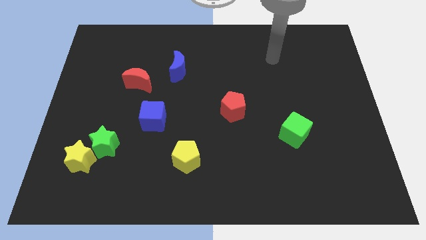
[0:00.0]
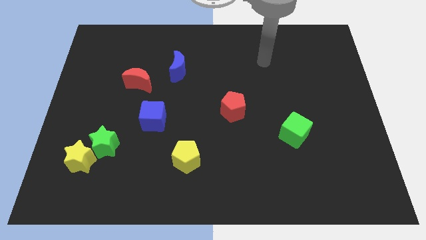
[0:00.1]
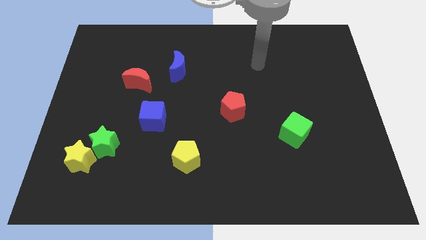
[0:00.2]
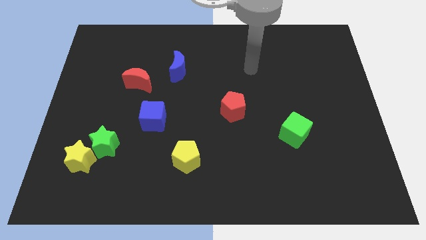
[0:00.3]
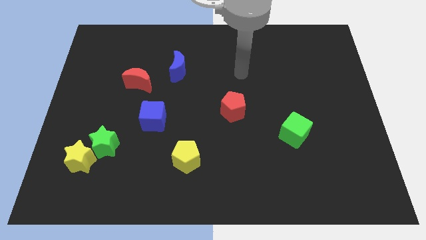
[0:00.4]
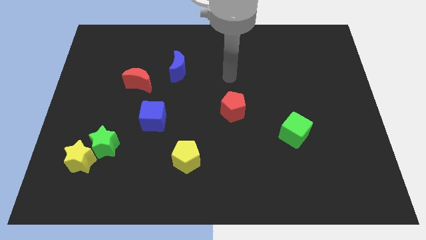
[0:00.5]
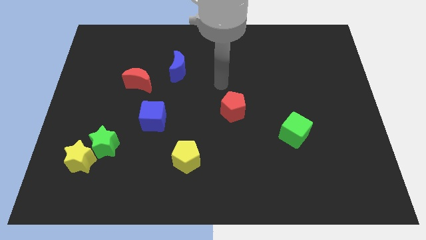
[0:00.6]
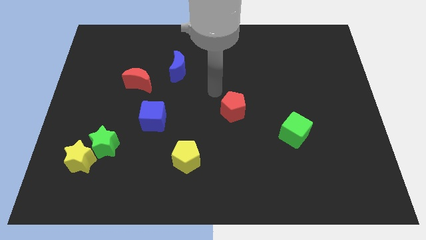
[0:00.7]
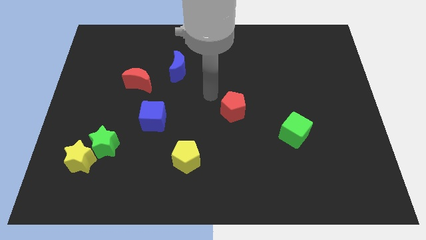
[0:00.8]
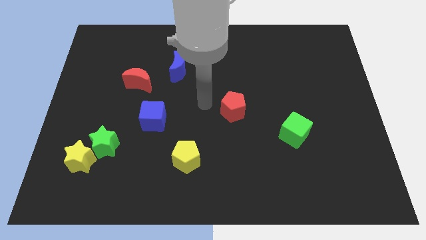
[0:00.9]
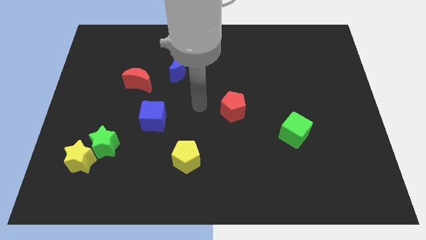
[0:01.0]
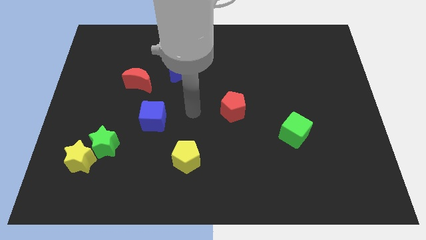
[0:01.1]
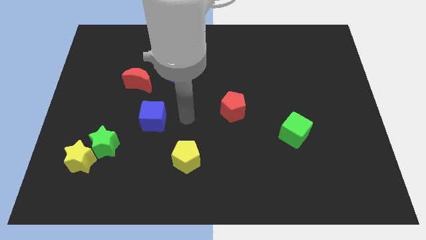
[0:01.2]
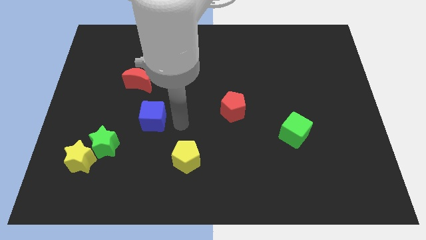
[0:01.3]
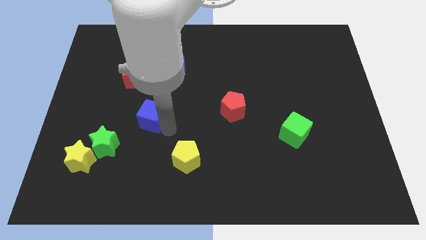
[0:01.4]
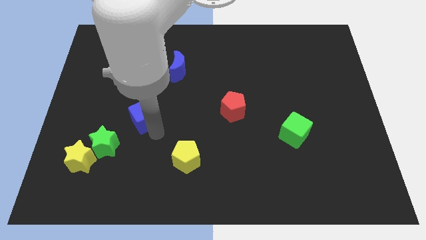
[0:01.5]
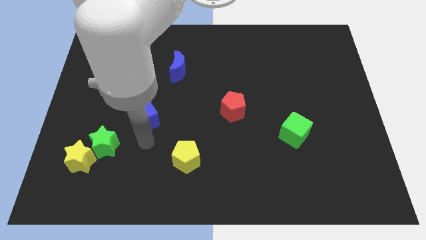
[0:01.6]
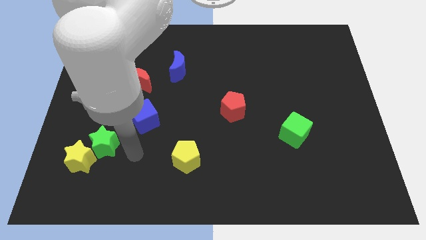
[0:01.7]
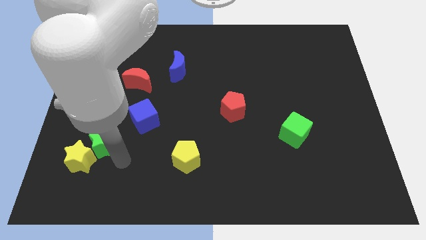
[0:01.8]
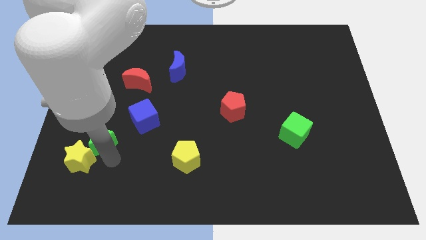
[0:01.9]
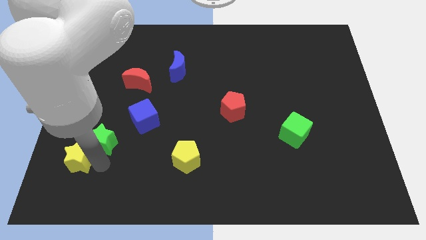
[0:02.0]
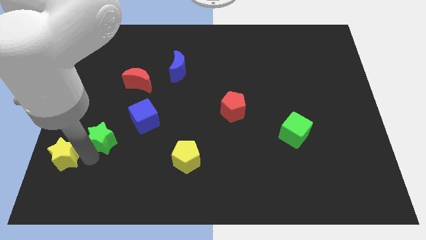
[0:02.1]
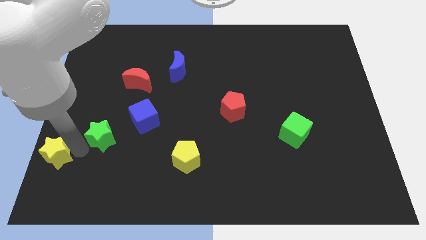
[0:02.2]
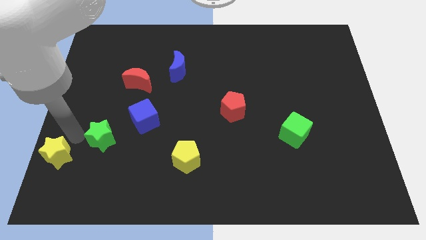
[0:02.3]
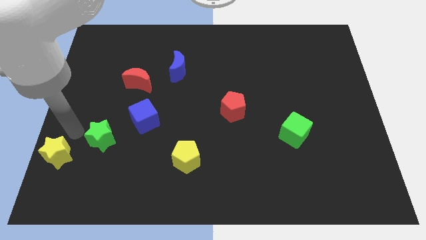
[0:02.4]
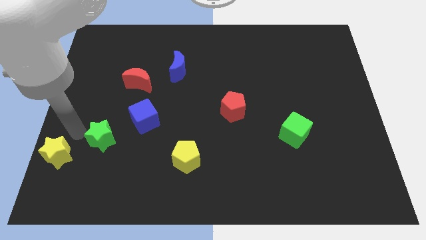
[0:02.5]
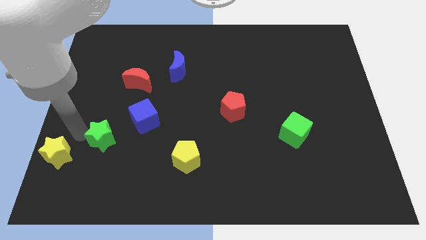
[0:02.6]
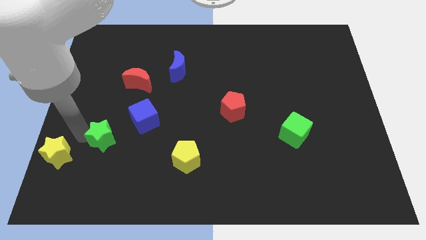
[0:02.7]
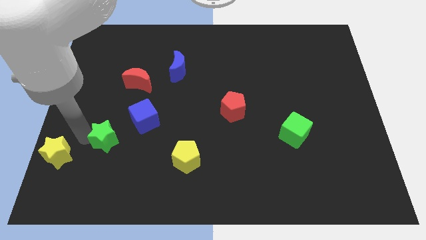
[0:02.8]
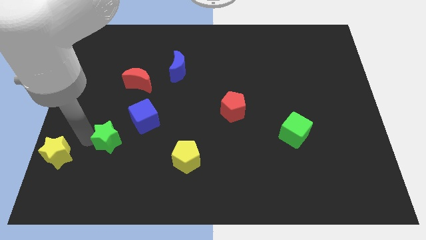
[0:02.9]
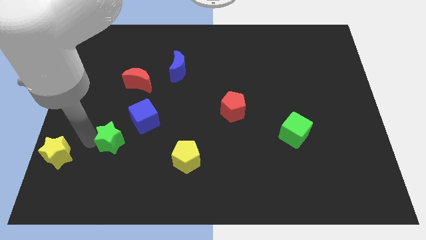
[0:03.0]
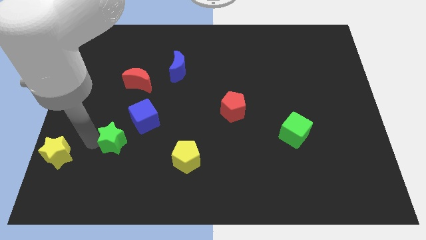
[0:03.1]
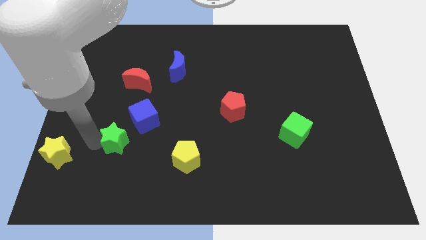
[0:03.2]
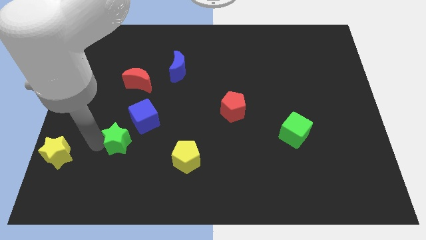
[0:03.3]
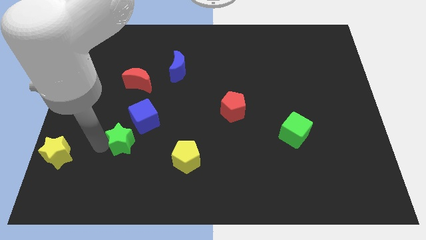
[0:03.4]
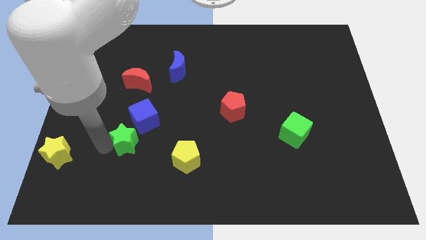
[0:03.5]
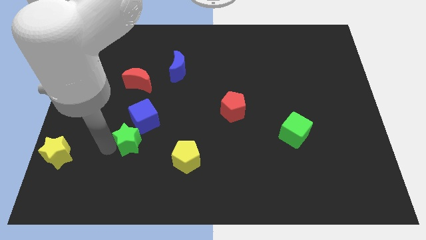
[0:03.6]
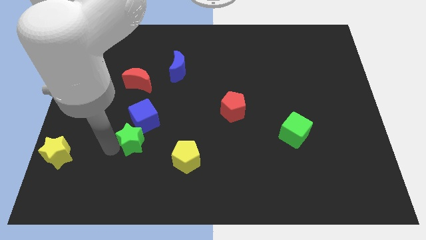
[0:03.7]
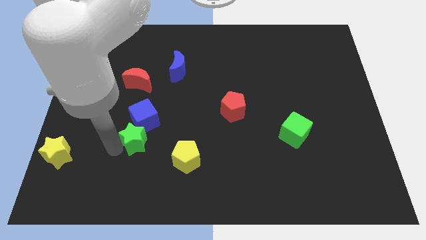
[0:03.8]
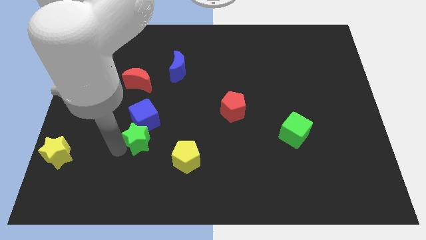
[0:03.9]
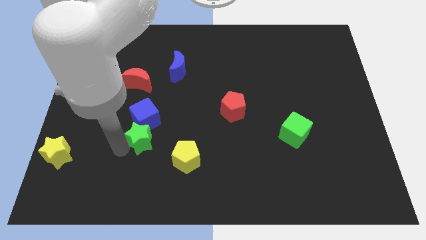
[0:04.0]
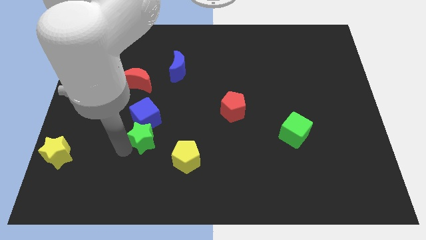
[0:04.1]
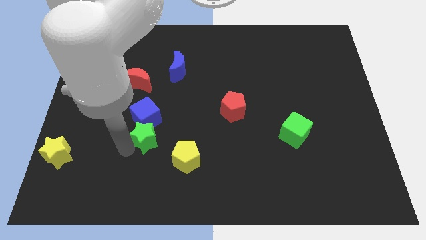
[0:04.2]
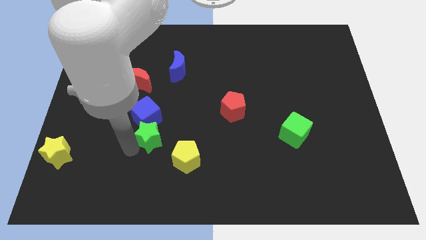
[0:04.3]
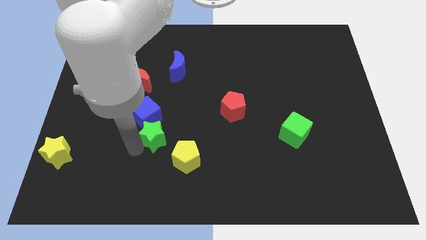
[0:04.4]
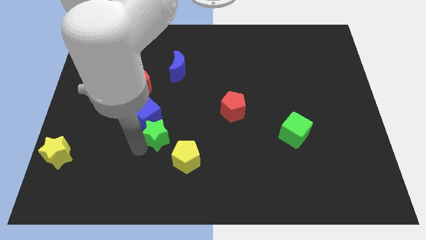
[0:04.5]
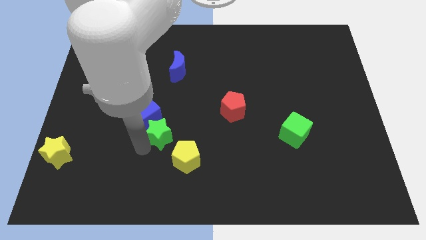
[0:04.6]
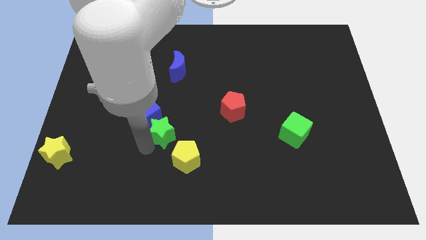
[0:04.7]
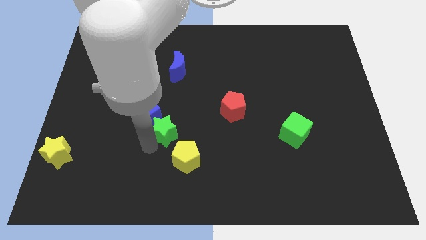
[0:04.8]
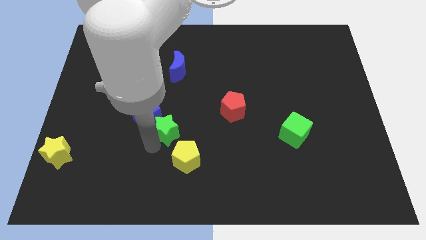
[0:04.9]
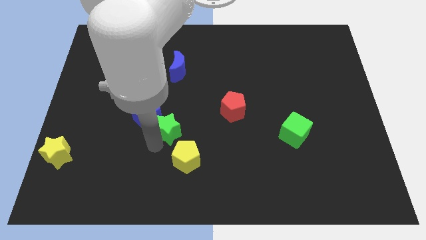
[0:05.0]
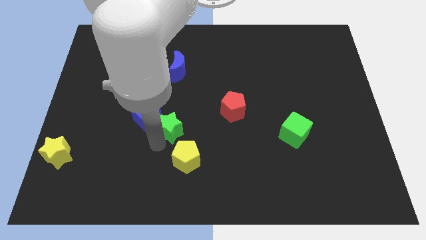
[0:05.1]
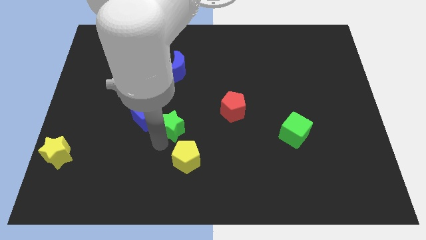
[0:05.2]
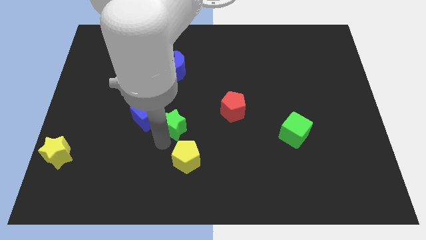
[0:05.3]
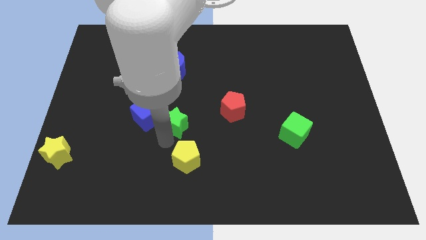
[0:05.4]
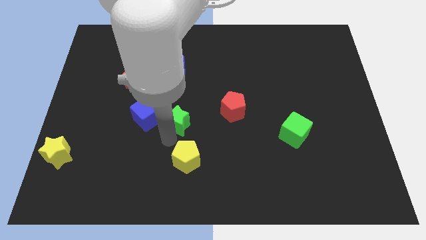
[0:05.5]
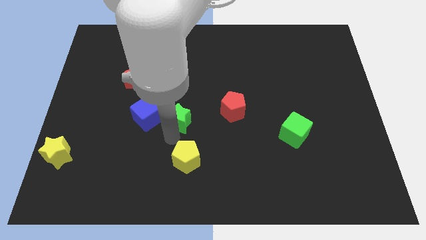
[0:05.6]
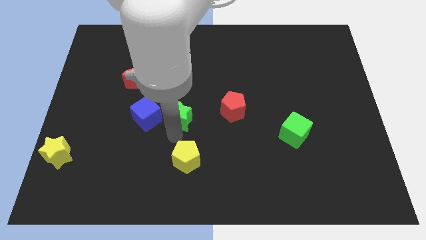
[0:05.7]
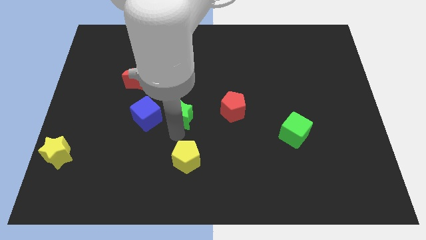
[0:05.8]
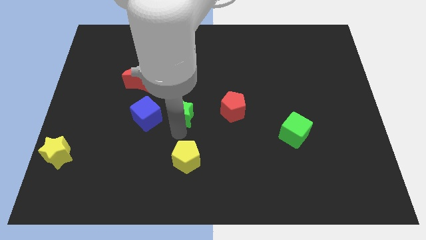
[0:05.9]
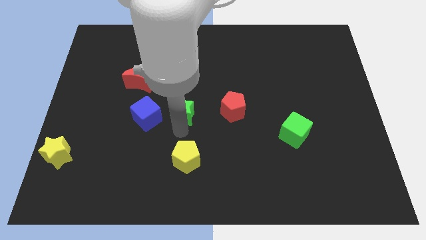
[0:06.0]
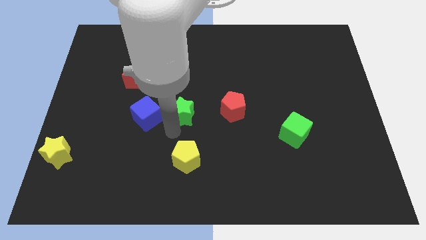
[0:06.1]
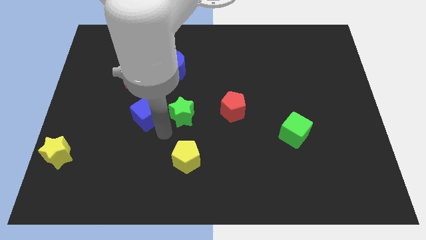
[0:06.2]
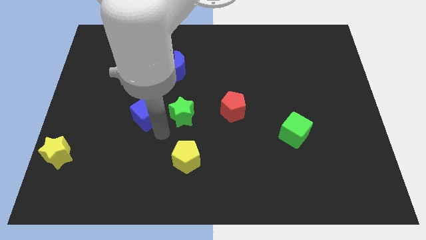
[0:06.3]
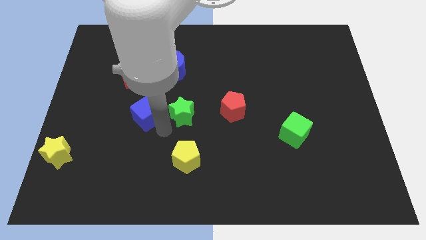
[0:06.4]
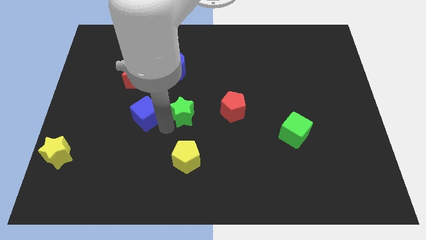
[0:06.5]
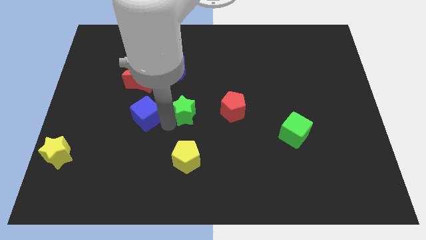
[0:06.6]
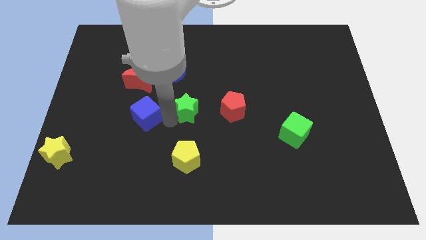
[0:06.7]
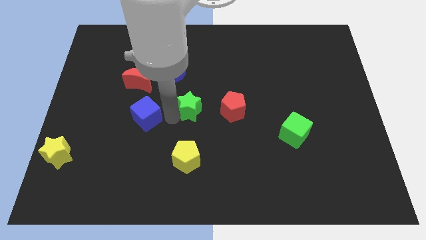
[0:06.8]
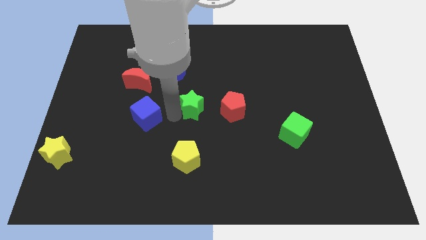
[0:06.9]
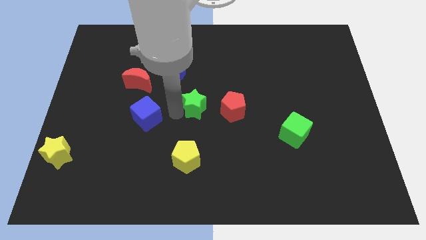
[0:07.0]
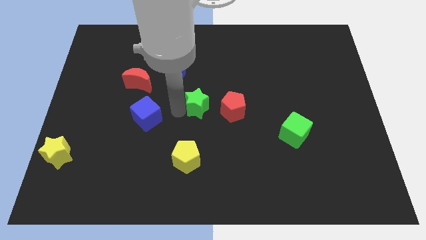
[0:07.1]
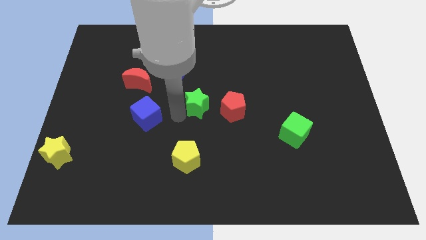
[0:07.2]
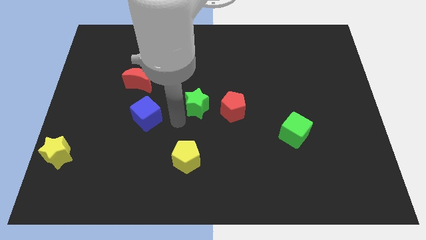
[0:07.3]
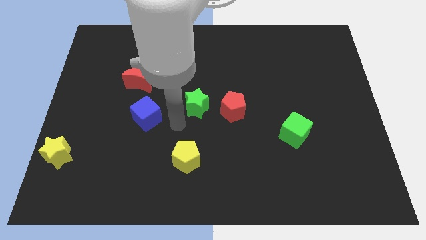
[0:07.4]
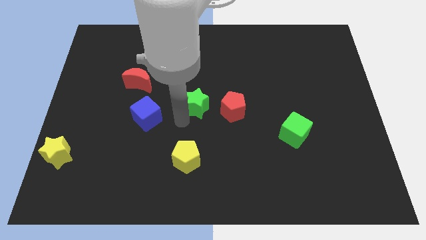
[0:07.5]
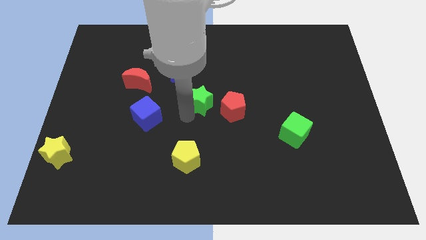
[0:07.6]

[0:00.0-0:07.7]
slide the green star diagonally up and to the left of the red pentagon

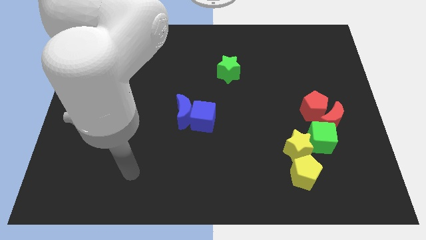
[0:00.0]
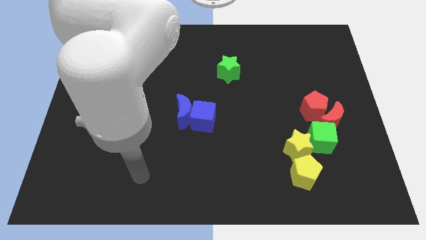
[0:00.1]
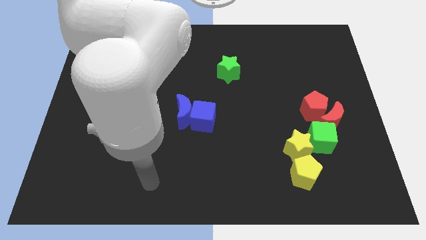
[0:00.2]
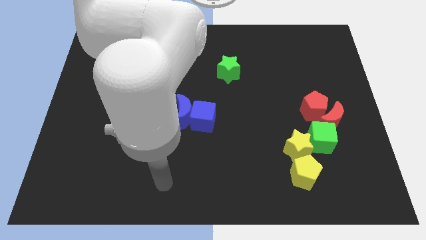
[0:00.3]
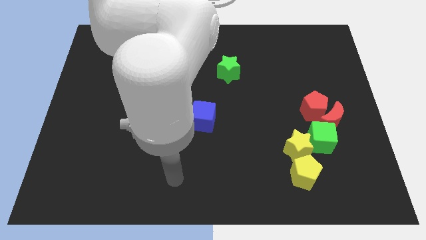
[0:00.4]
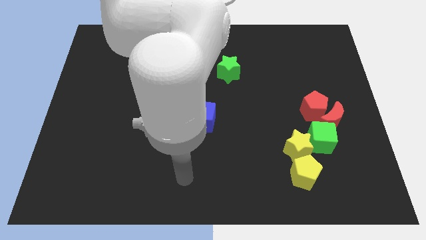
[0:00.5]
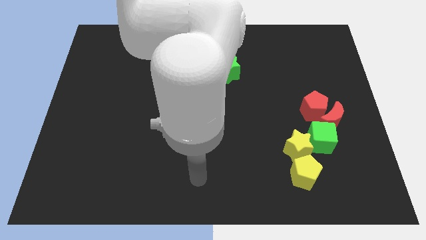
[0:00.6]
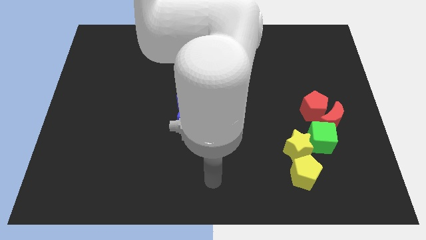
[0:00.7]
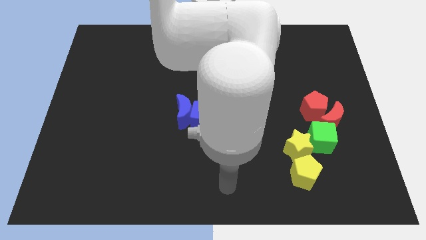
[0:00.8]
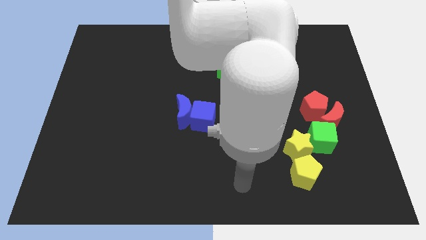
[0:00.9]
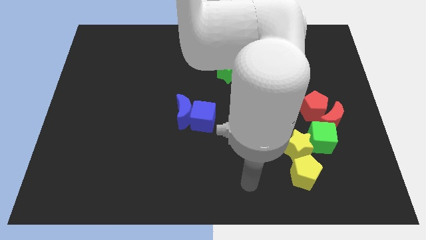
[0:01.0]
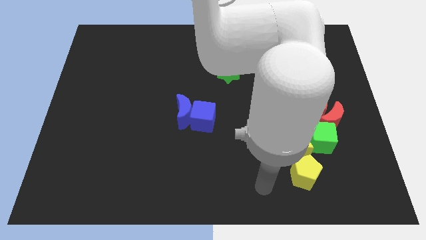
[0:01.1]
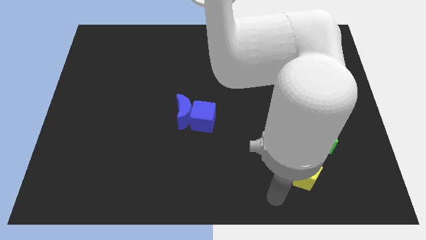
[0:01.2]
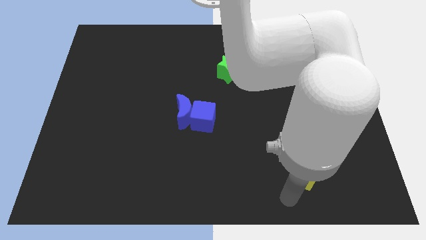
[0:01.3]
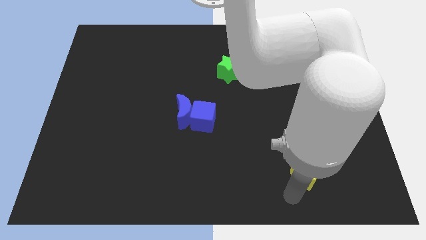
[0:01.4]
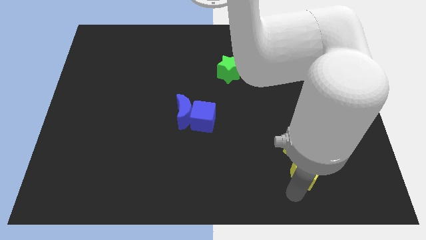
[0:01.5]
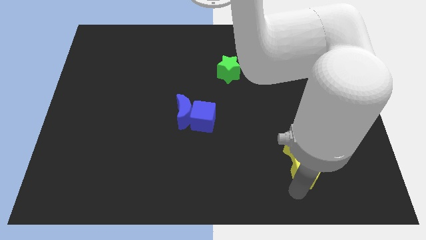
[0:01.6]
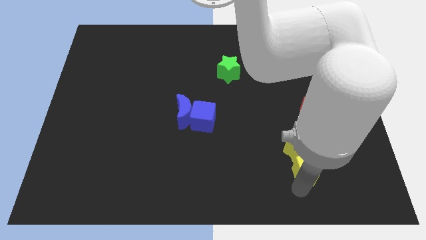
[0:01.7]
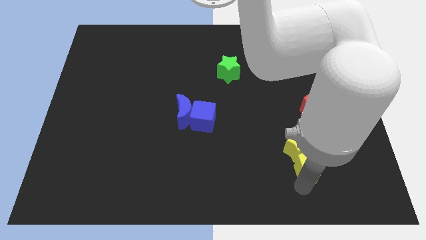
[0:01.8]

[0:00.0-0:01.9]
move the yellow pentagon below the red pentagon
